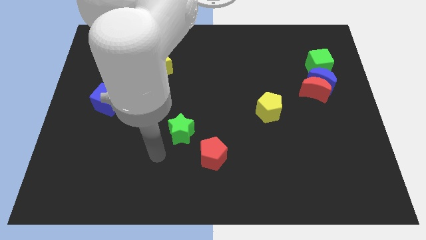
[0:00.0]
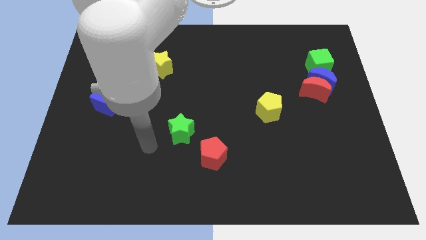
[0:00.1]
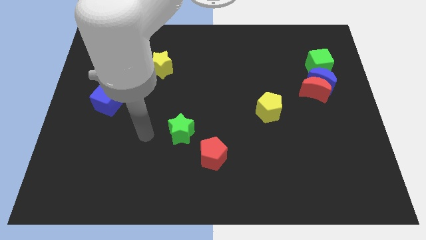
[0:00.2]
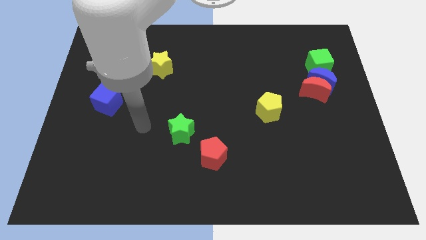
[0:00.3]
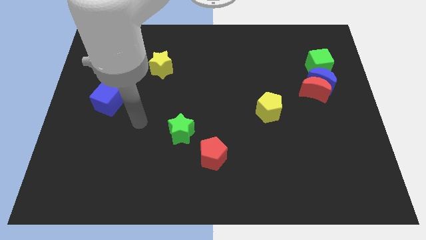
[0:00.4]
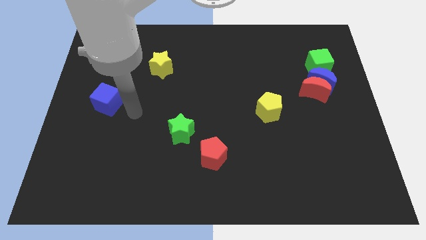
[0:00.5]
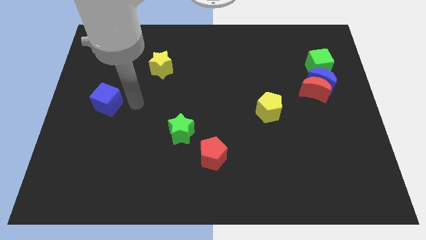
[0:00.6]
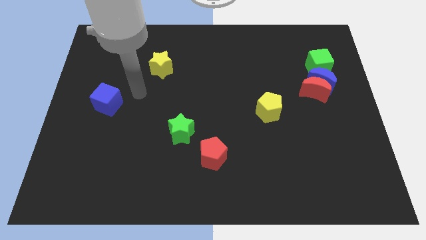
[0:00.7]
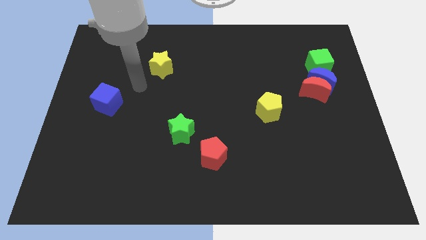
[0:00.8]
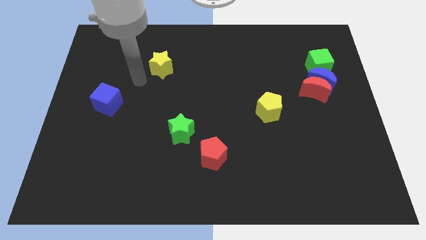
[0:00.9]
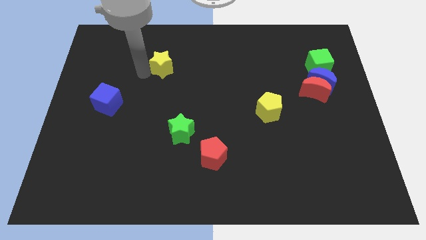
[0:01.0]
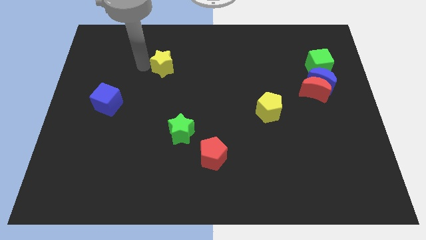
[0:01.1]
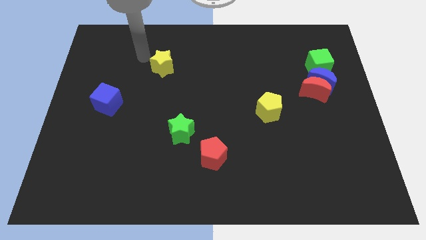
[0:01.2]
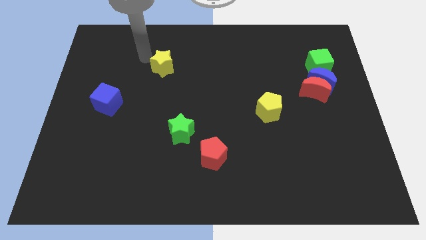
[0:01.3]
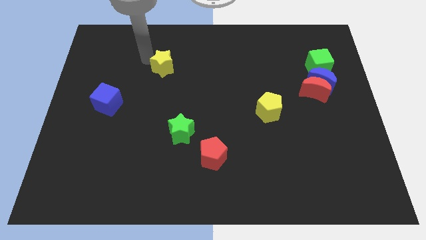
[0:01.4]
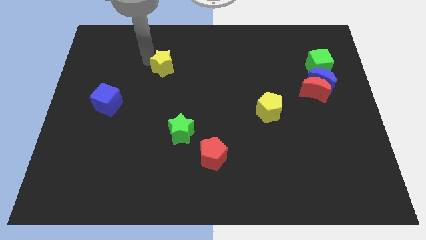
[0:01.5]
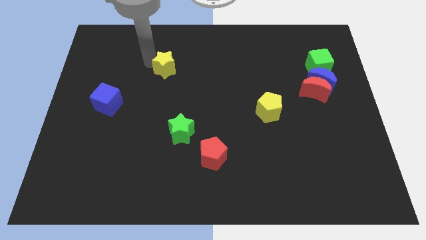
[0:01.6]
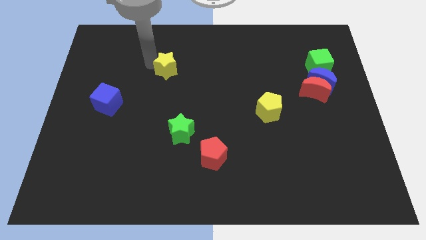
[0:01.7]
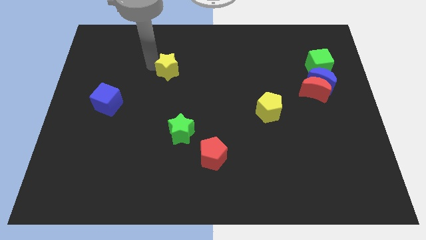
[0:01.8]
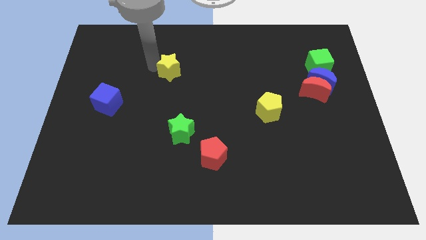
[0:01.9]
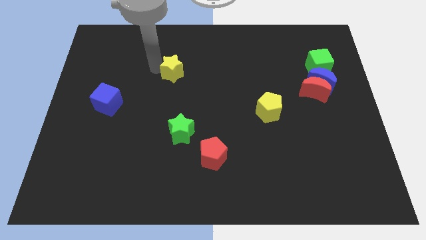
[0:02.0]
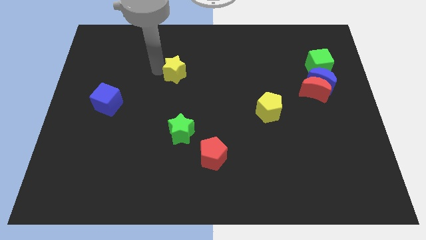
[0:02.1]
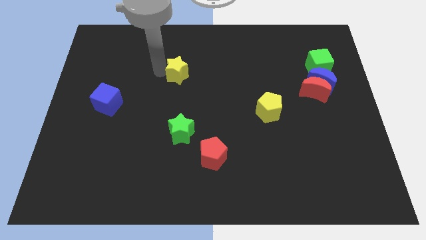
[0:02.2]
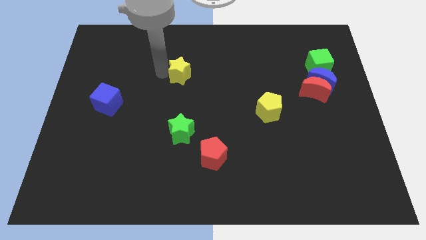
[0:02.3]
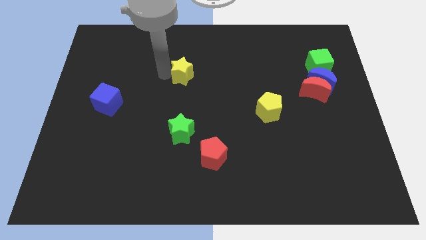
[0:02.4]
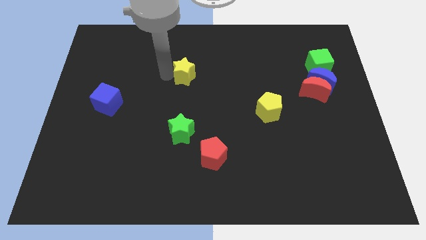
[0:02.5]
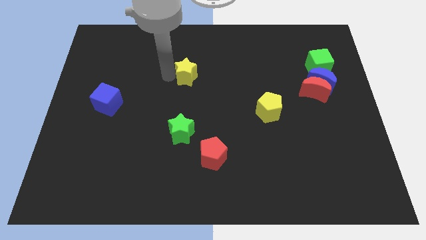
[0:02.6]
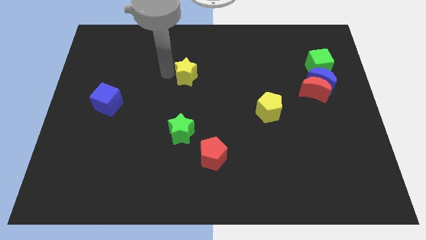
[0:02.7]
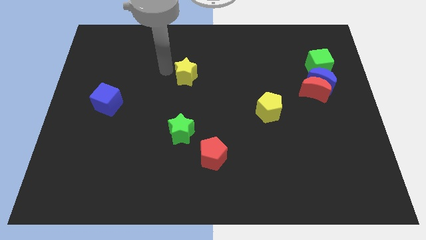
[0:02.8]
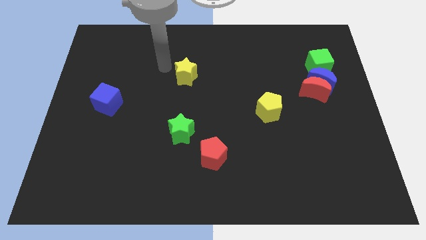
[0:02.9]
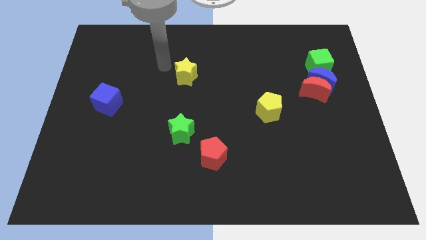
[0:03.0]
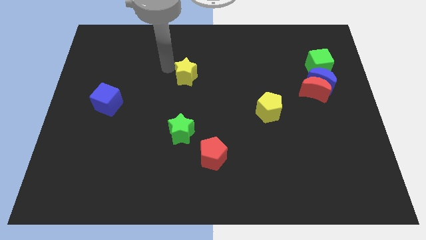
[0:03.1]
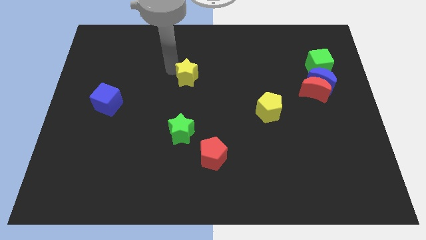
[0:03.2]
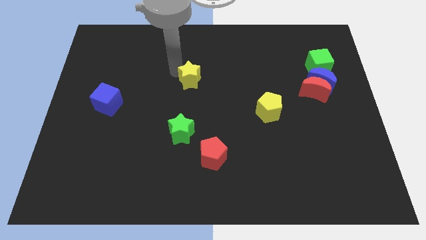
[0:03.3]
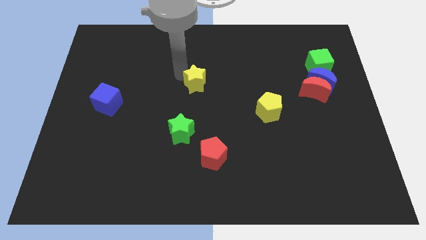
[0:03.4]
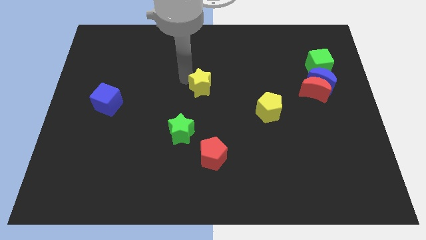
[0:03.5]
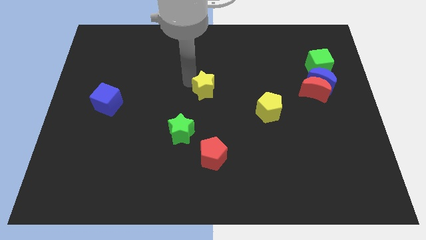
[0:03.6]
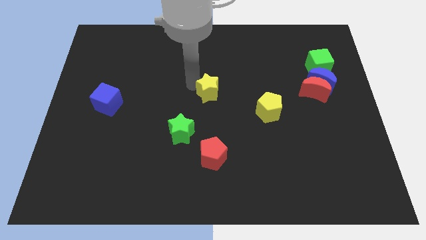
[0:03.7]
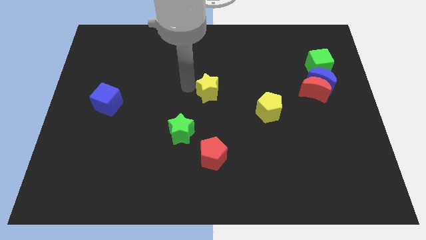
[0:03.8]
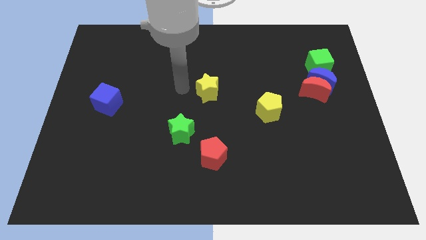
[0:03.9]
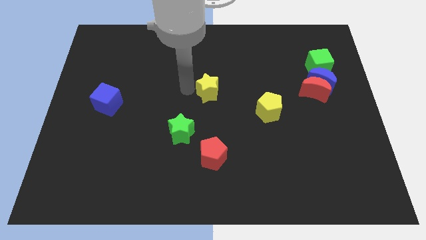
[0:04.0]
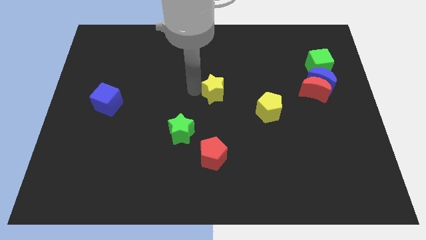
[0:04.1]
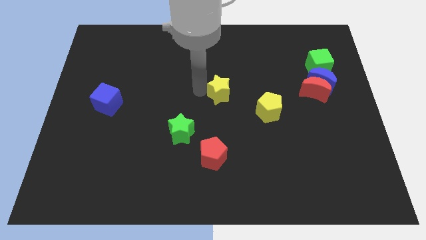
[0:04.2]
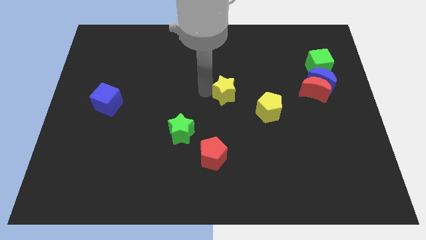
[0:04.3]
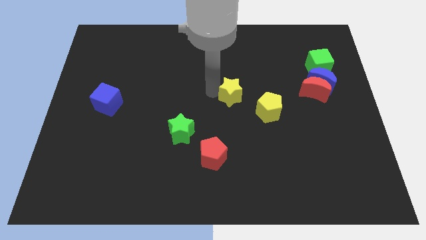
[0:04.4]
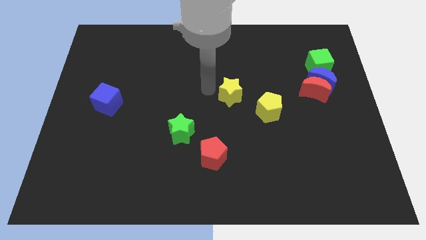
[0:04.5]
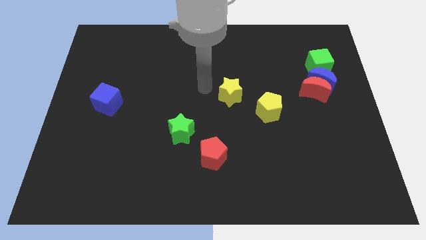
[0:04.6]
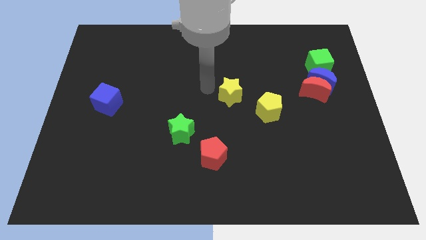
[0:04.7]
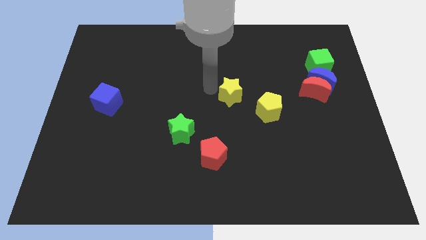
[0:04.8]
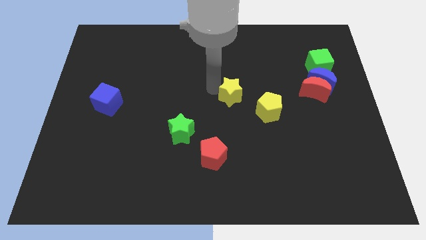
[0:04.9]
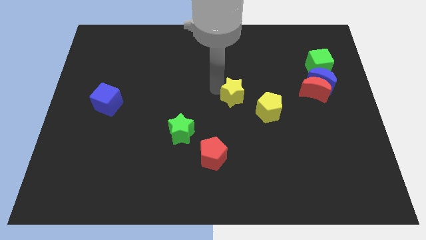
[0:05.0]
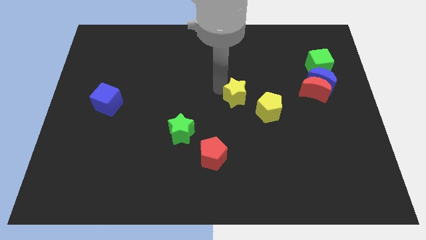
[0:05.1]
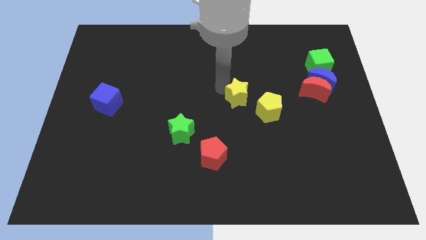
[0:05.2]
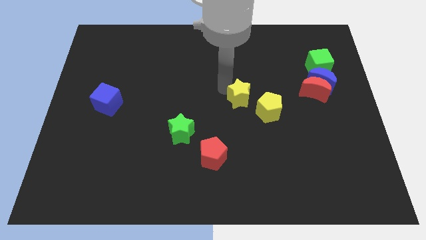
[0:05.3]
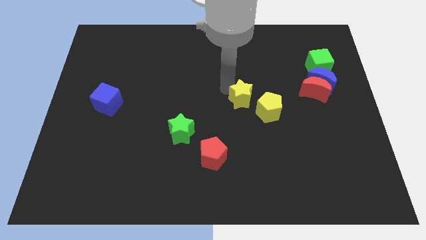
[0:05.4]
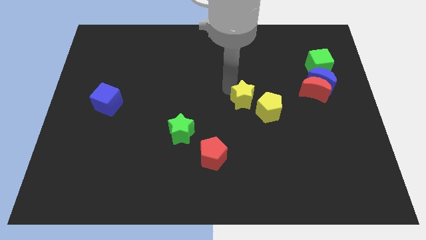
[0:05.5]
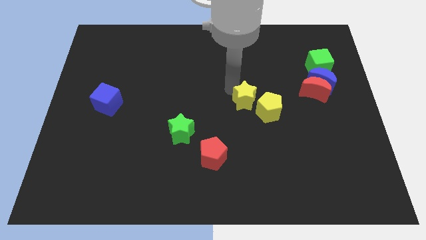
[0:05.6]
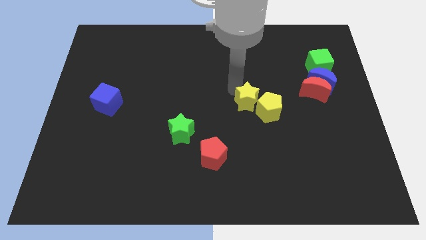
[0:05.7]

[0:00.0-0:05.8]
move the yellow star towards the yellow pentagon
